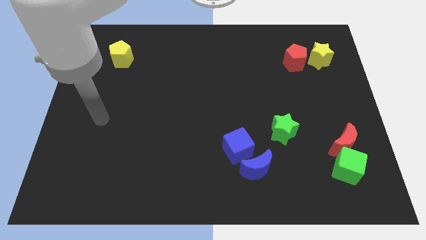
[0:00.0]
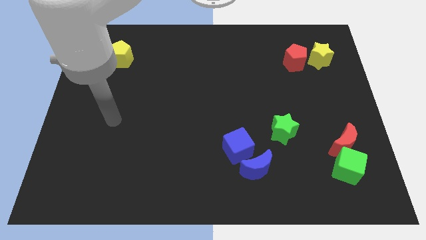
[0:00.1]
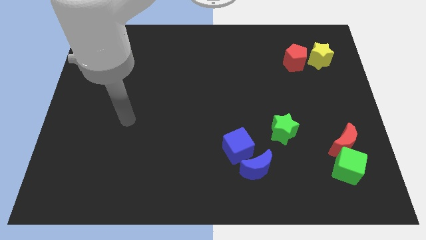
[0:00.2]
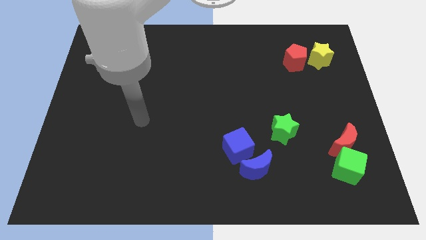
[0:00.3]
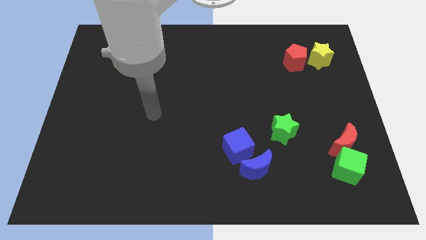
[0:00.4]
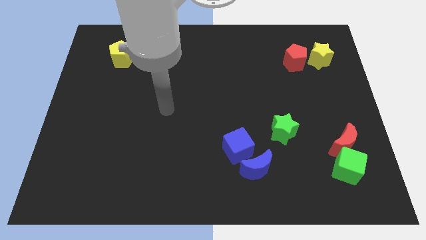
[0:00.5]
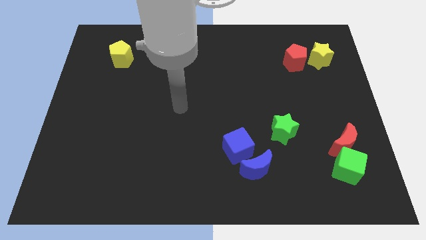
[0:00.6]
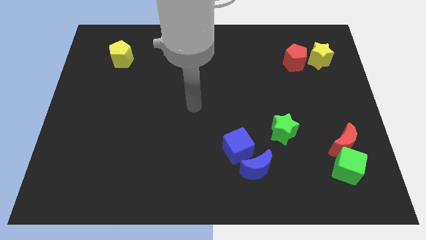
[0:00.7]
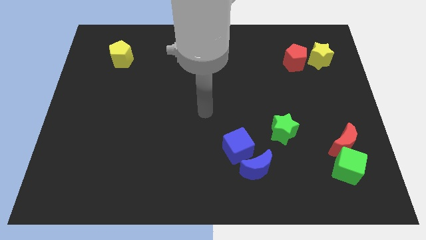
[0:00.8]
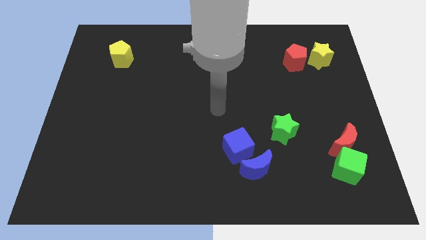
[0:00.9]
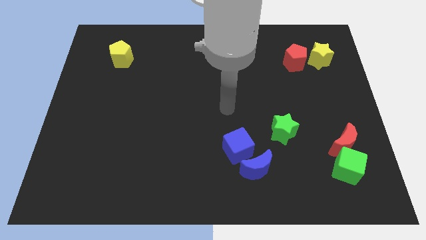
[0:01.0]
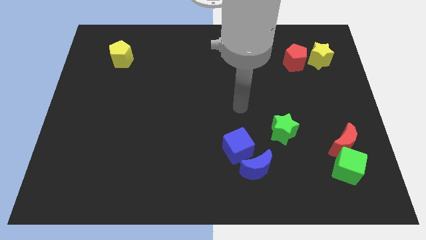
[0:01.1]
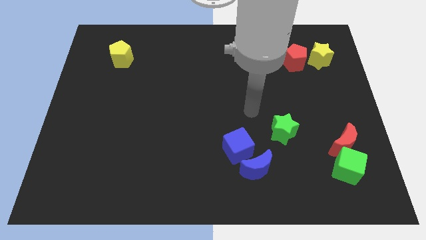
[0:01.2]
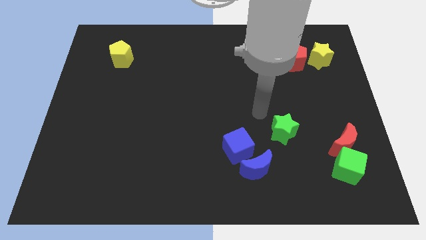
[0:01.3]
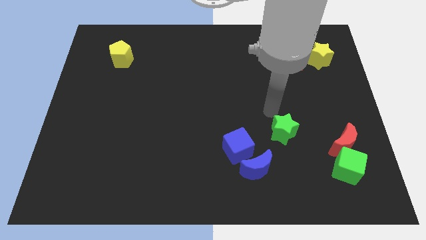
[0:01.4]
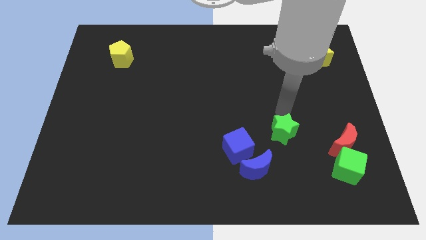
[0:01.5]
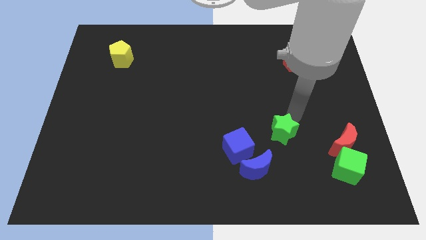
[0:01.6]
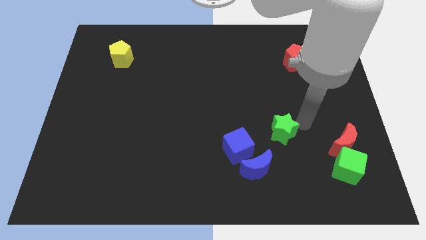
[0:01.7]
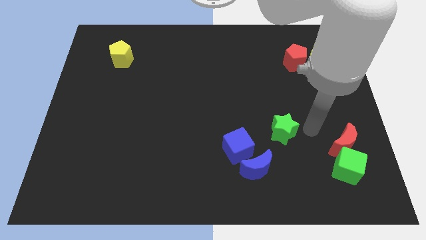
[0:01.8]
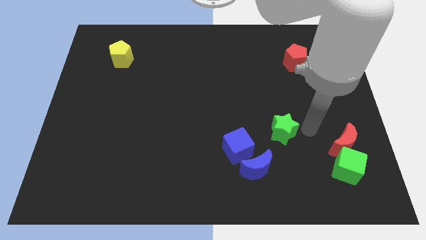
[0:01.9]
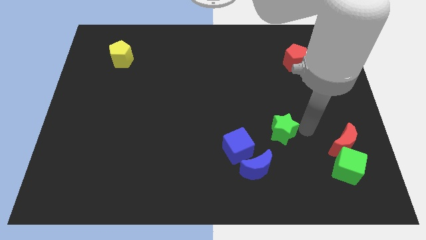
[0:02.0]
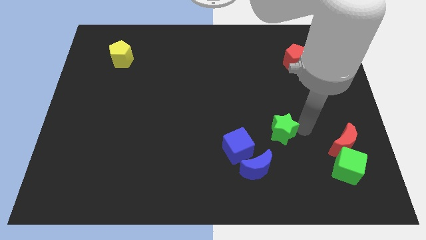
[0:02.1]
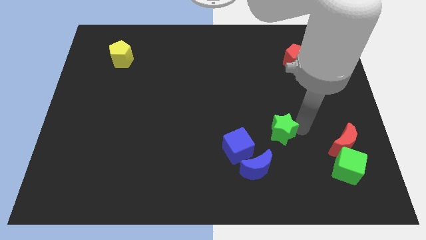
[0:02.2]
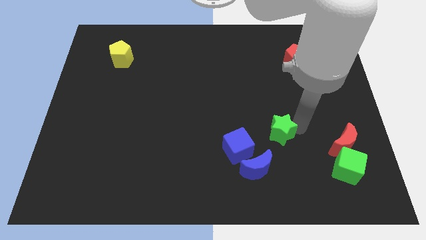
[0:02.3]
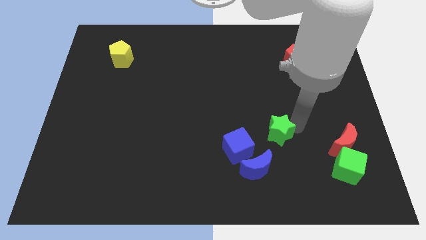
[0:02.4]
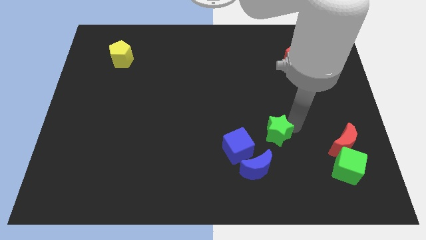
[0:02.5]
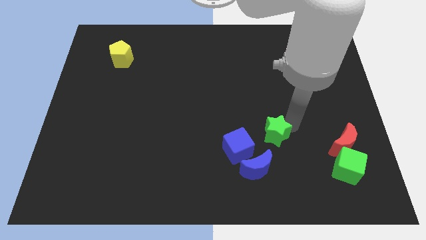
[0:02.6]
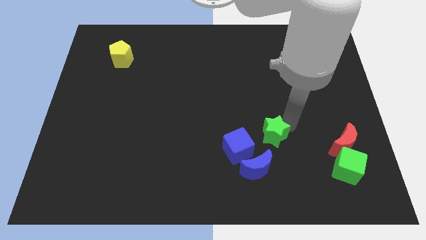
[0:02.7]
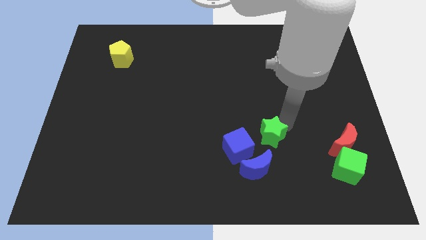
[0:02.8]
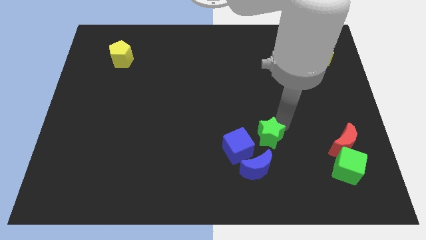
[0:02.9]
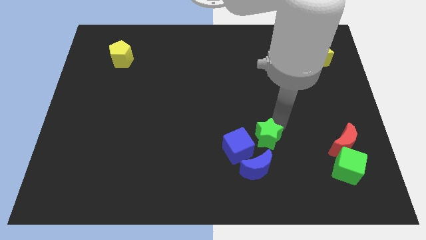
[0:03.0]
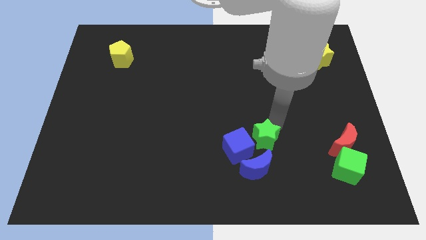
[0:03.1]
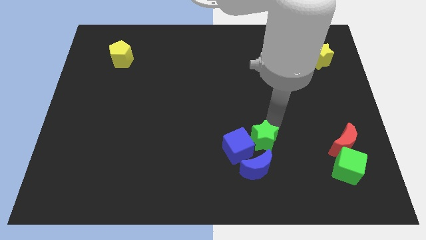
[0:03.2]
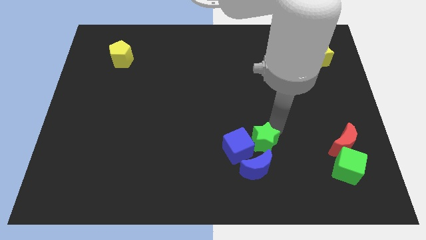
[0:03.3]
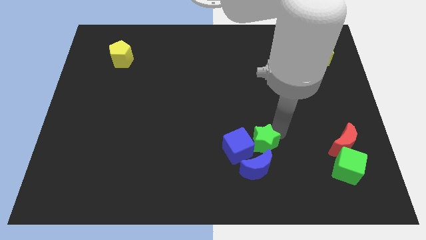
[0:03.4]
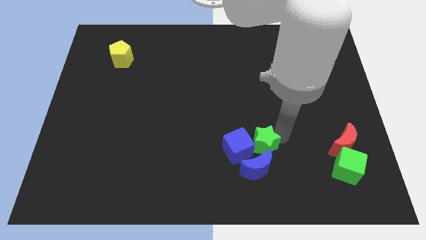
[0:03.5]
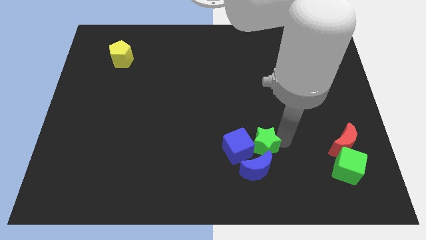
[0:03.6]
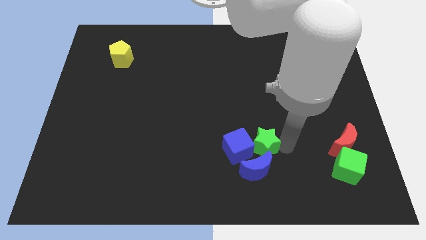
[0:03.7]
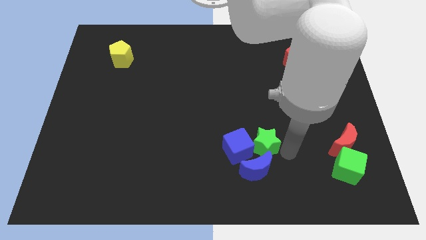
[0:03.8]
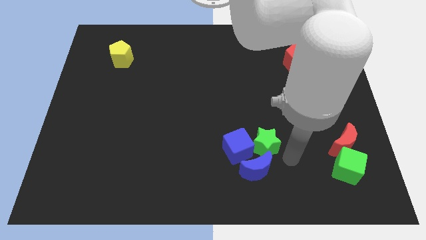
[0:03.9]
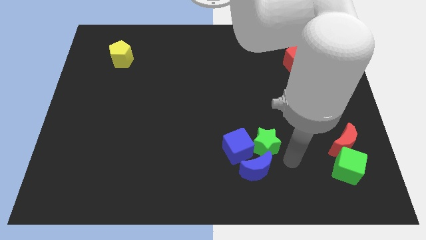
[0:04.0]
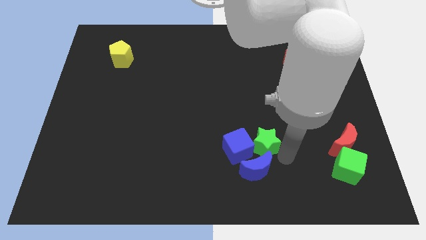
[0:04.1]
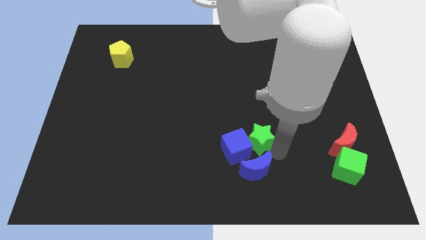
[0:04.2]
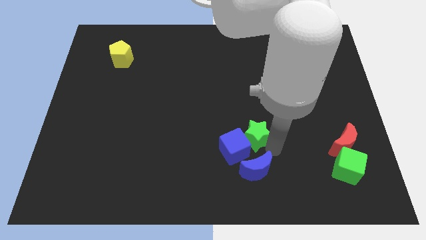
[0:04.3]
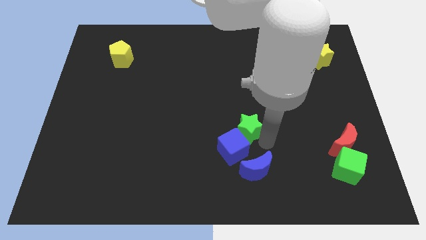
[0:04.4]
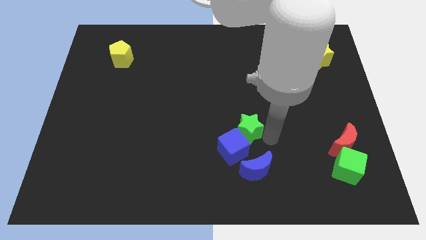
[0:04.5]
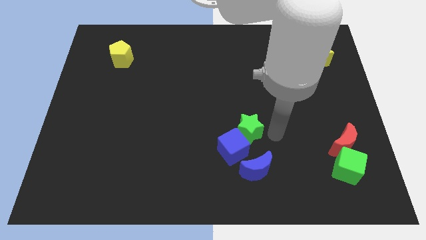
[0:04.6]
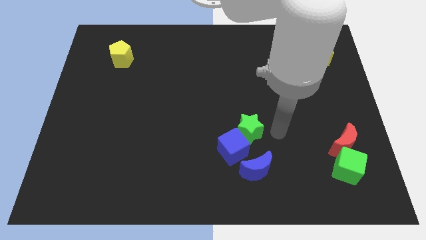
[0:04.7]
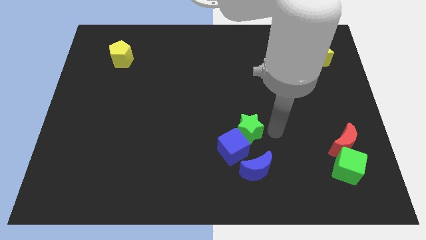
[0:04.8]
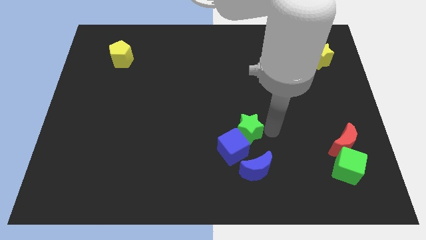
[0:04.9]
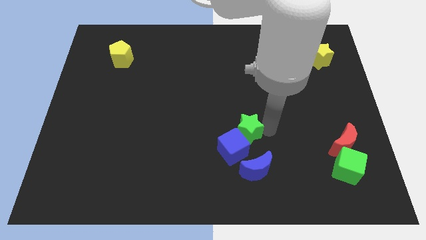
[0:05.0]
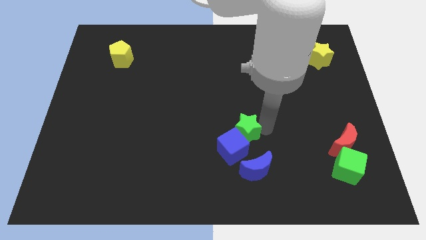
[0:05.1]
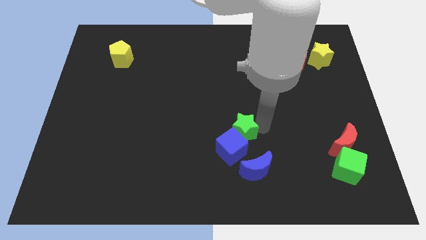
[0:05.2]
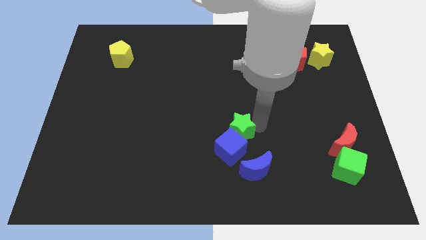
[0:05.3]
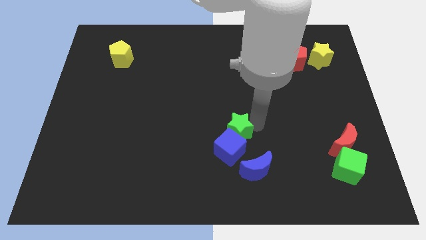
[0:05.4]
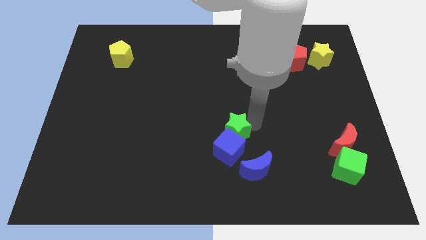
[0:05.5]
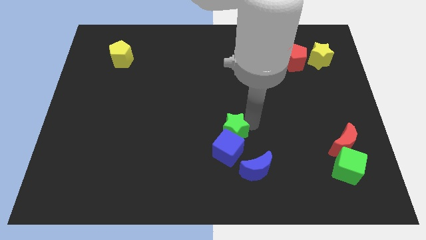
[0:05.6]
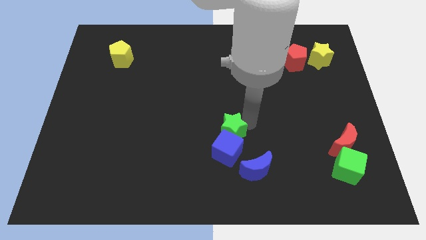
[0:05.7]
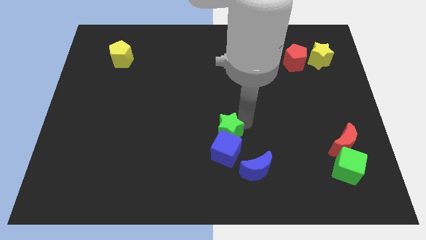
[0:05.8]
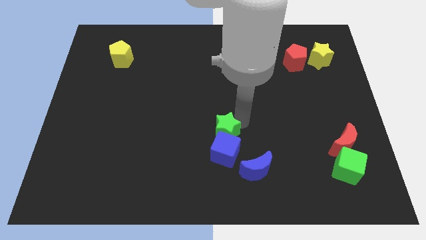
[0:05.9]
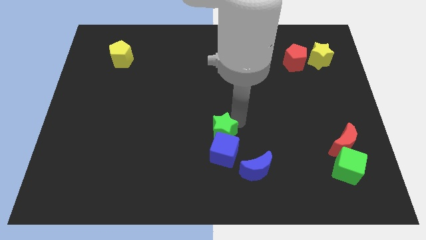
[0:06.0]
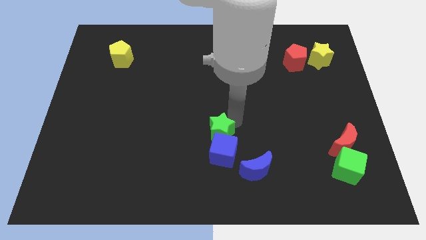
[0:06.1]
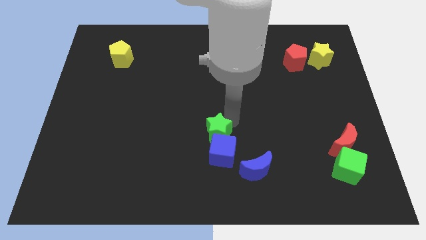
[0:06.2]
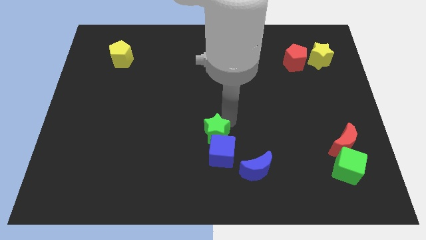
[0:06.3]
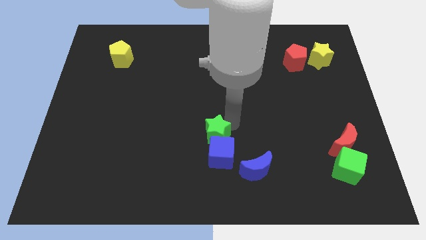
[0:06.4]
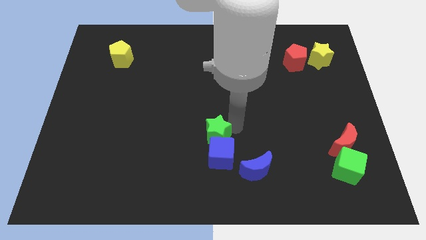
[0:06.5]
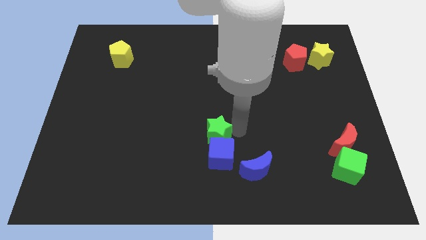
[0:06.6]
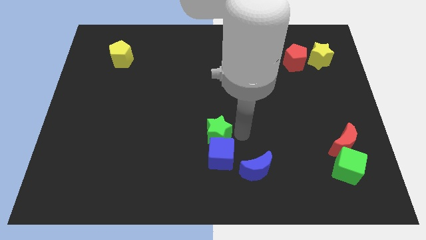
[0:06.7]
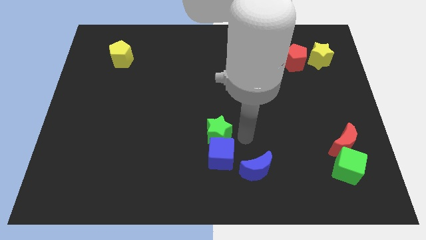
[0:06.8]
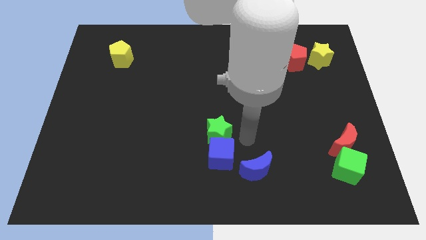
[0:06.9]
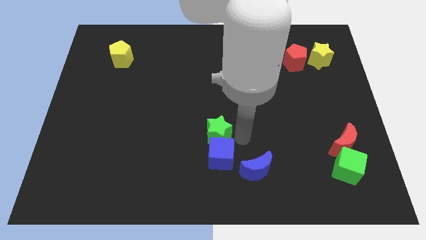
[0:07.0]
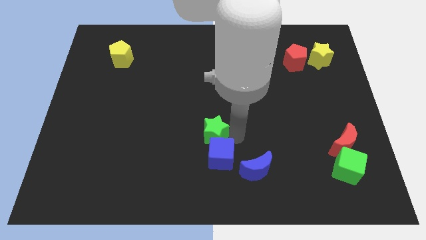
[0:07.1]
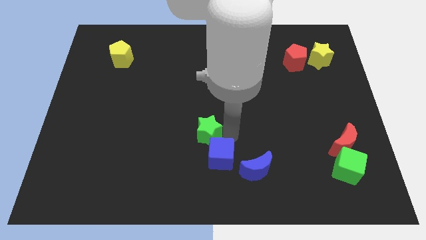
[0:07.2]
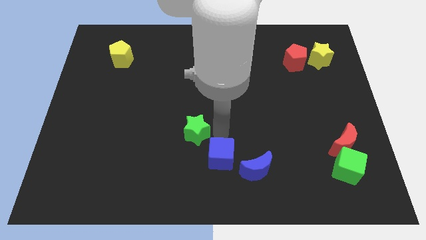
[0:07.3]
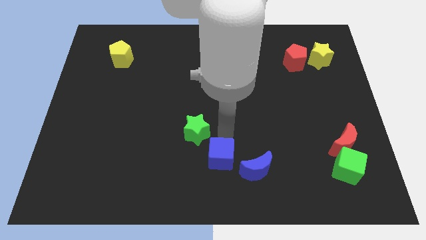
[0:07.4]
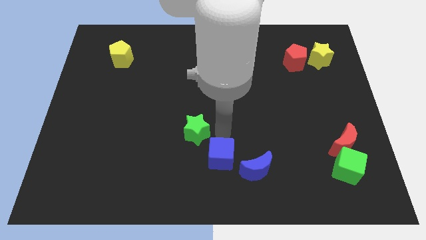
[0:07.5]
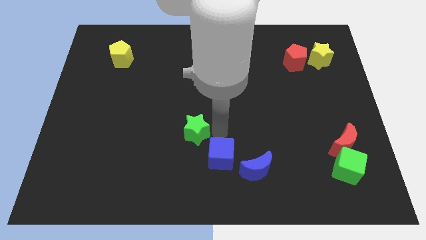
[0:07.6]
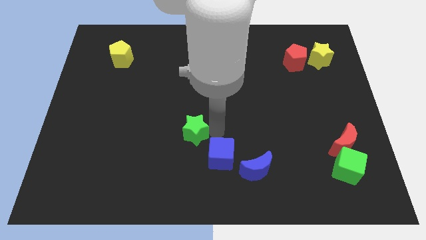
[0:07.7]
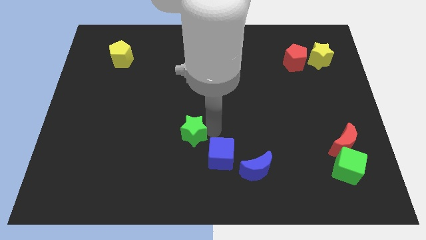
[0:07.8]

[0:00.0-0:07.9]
slide the green star left

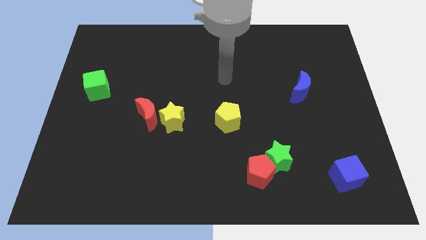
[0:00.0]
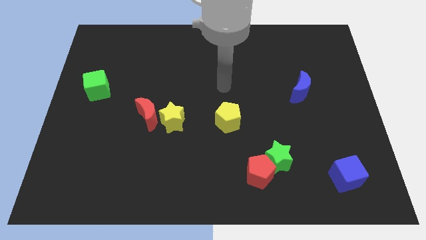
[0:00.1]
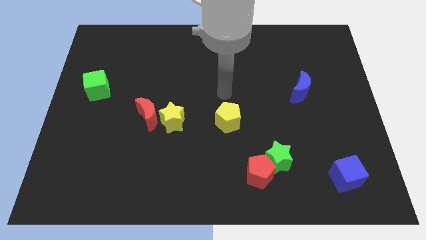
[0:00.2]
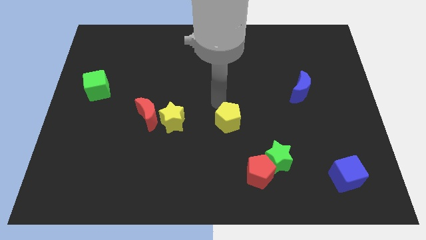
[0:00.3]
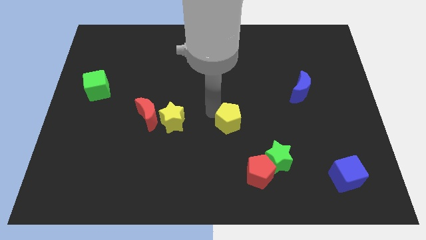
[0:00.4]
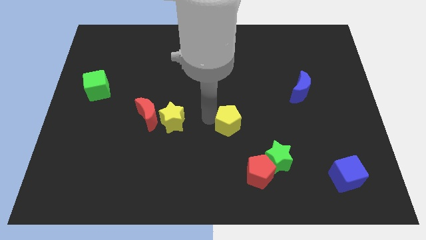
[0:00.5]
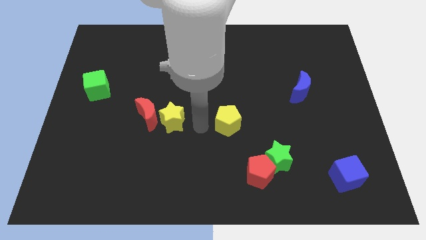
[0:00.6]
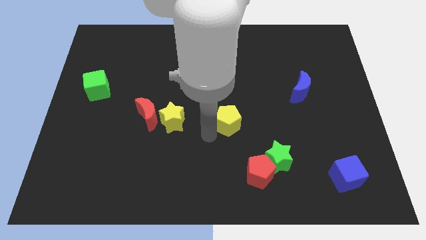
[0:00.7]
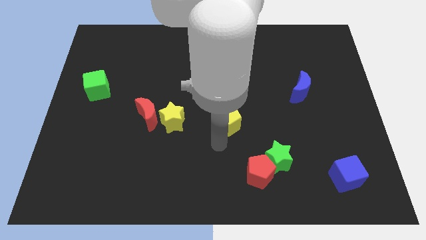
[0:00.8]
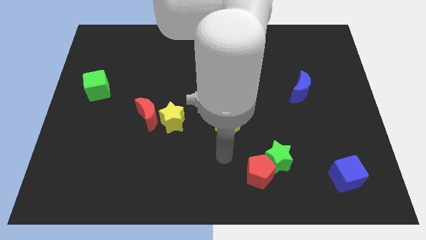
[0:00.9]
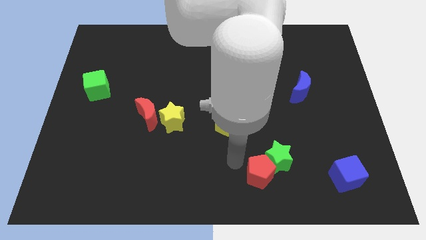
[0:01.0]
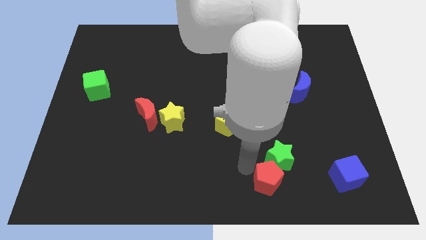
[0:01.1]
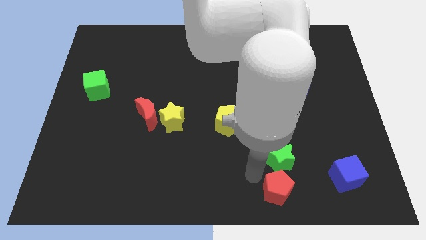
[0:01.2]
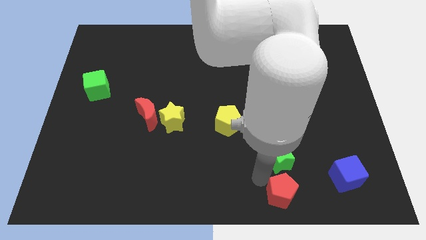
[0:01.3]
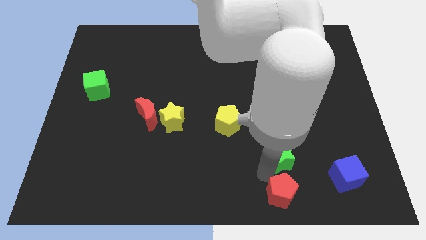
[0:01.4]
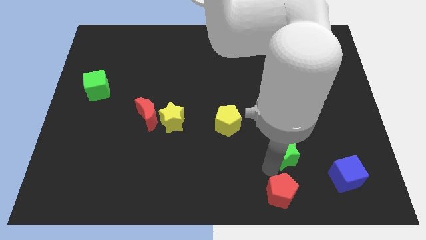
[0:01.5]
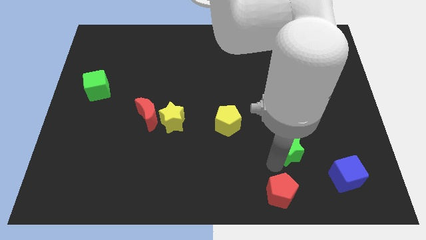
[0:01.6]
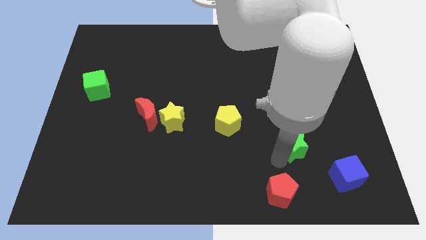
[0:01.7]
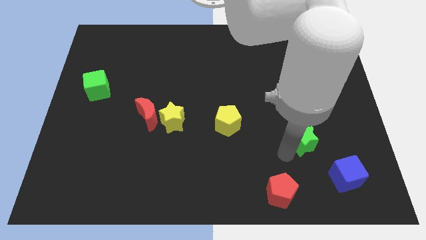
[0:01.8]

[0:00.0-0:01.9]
slightly slide the green star upwards and right diagonally
